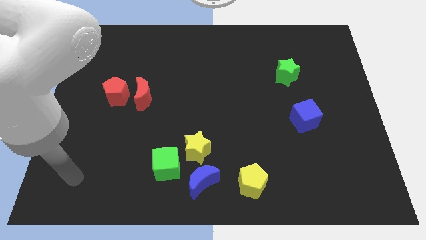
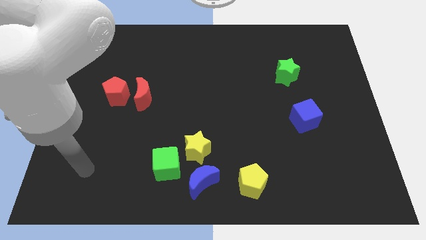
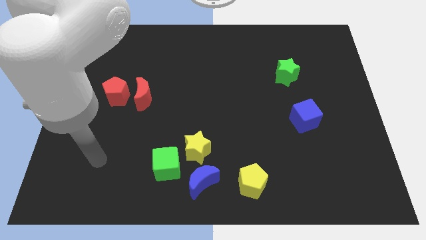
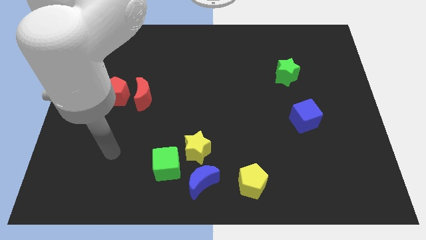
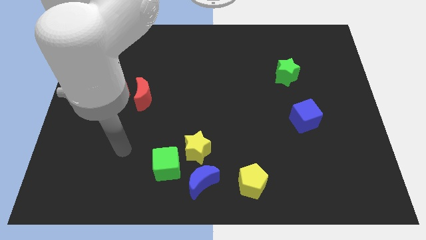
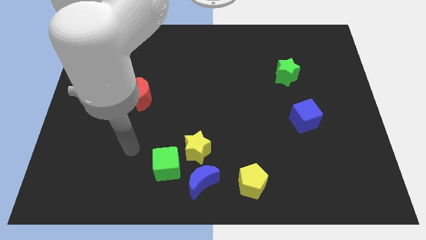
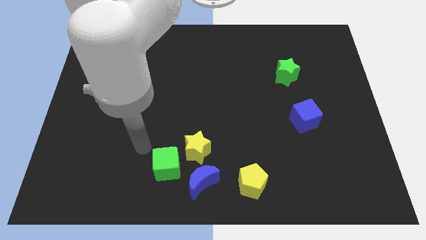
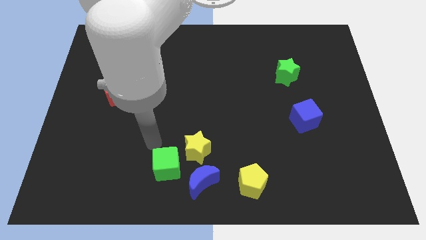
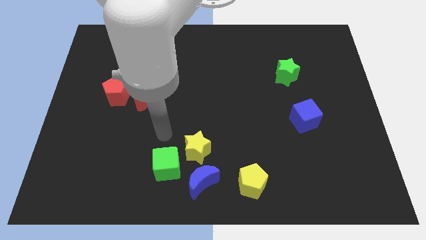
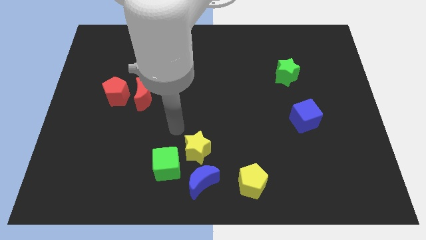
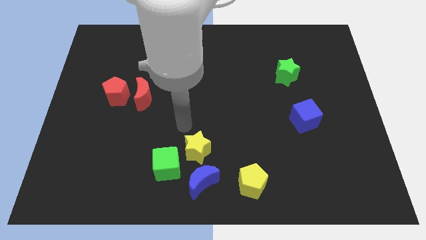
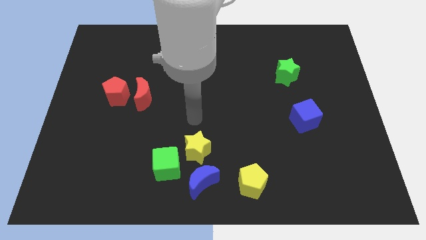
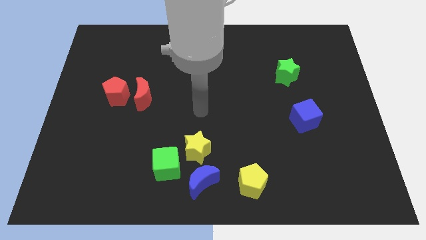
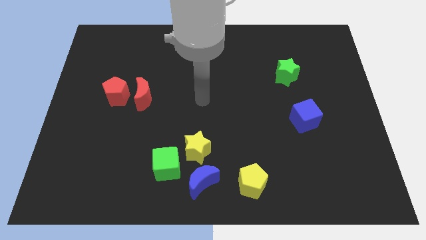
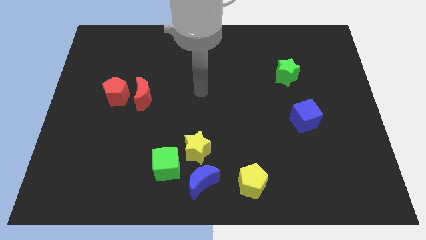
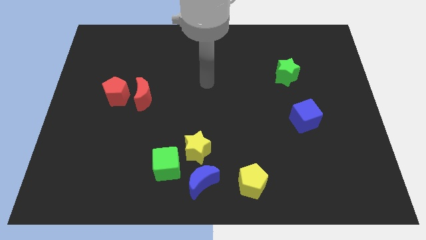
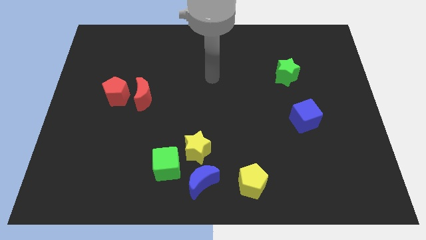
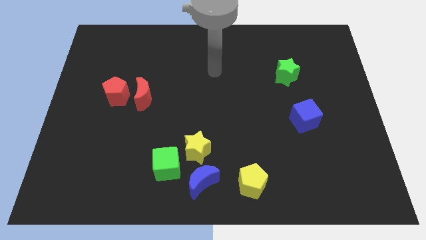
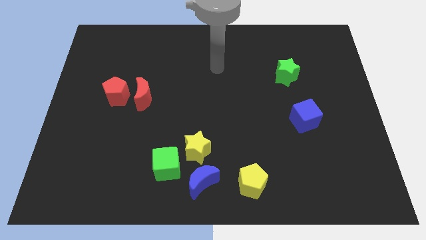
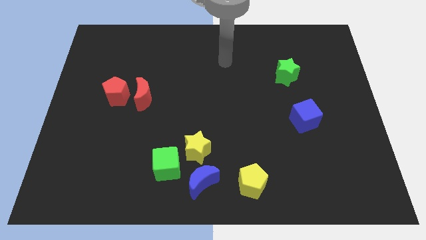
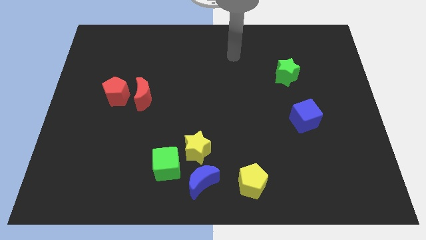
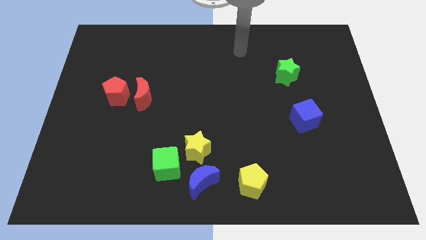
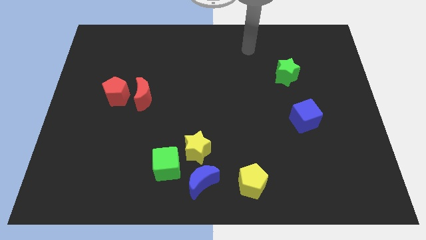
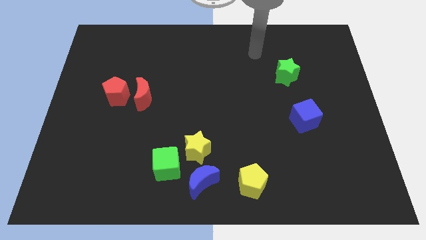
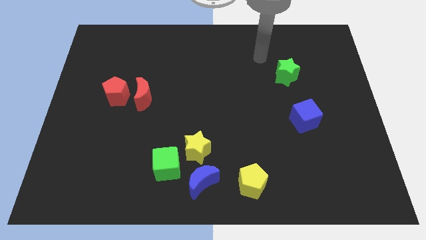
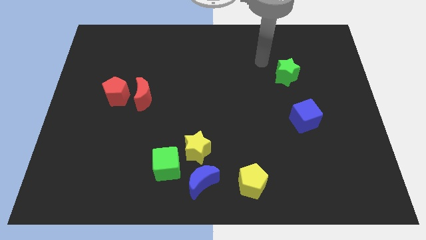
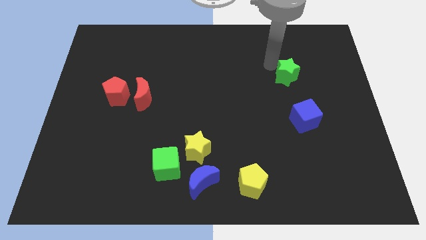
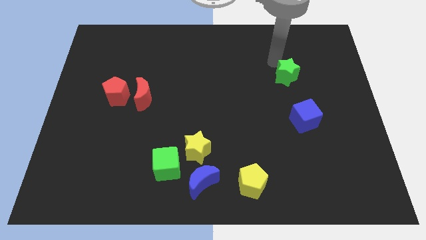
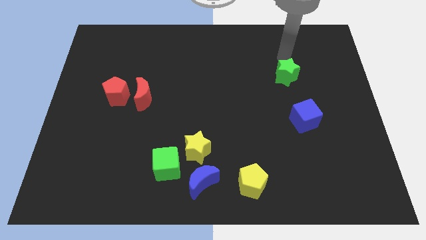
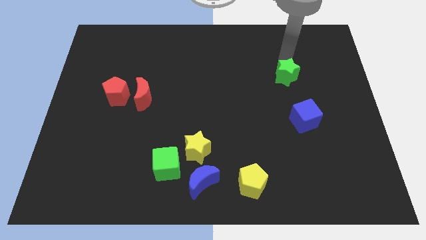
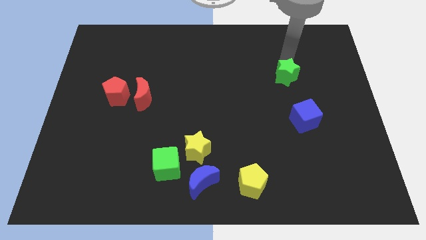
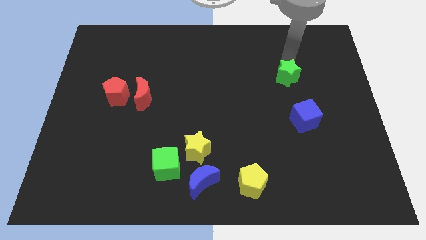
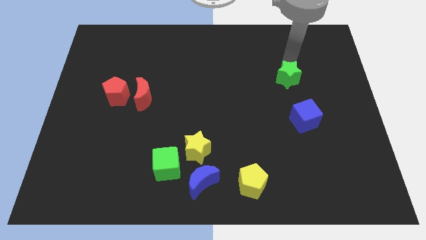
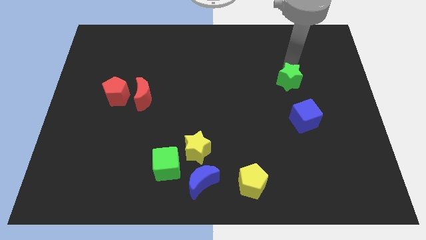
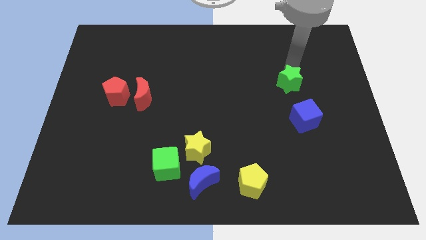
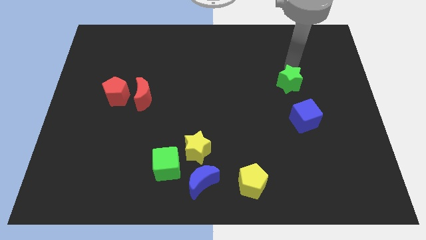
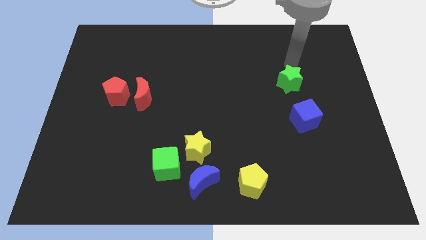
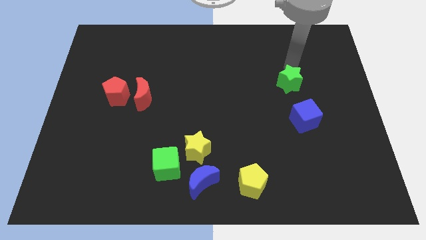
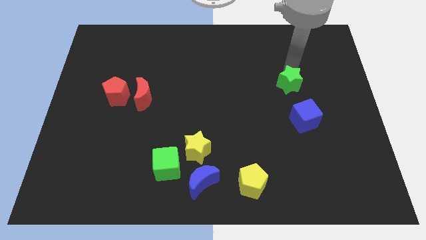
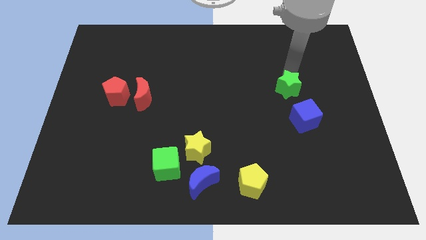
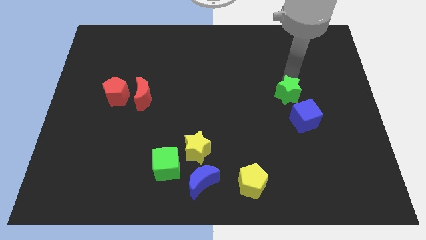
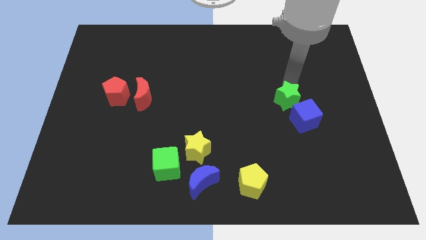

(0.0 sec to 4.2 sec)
slide the green star a little bit down

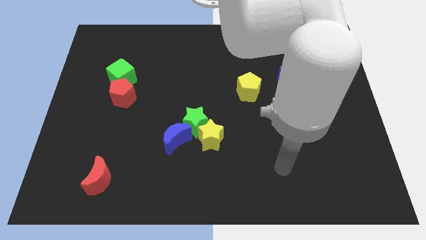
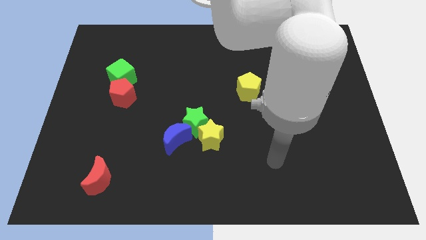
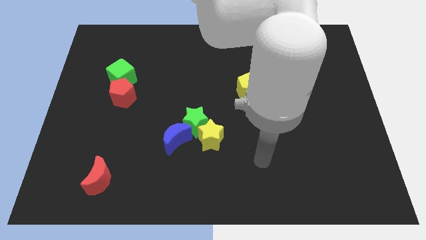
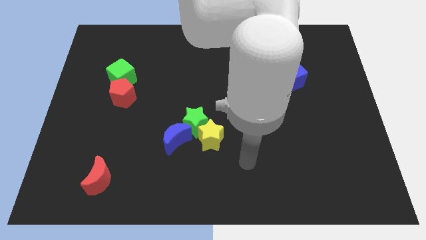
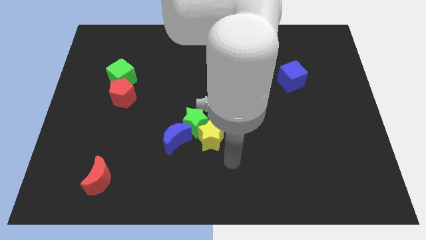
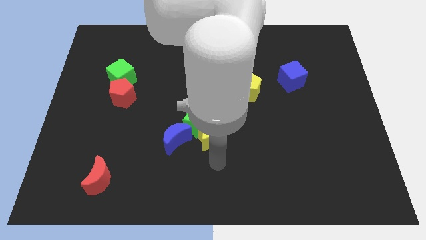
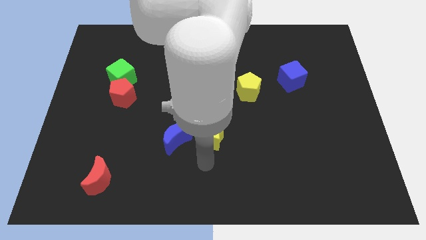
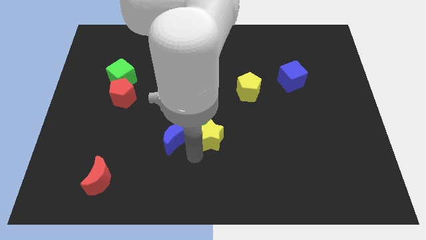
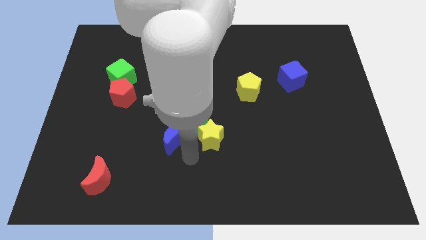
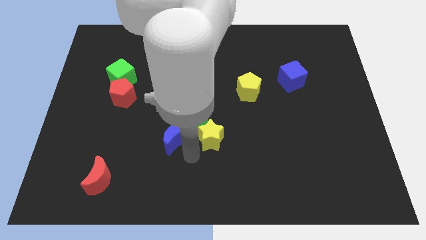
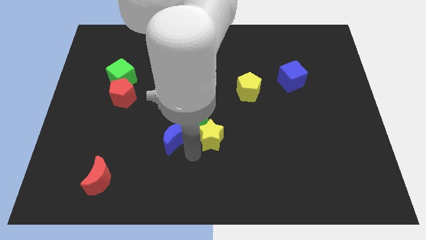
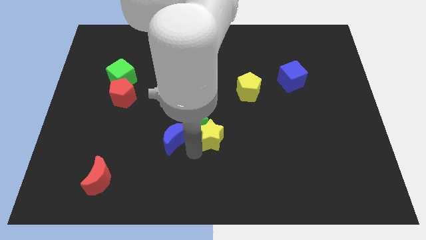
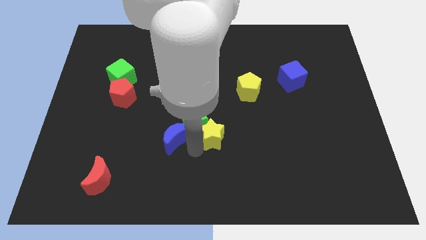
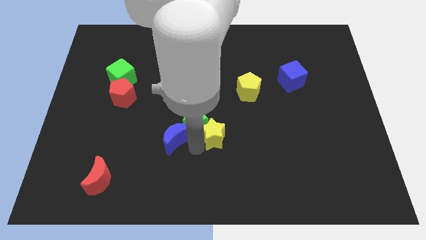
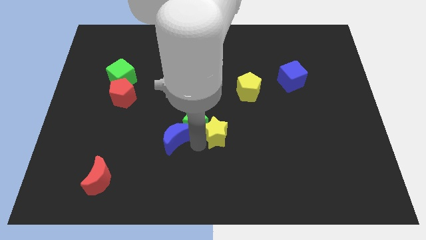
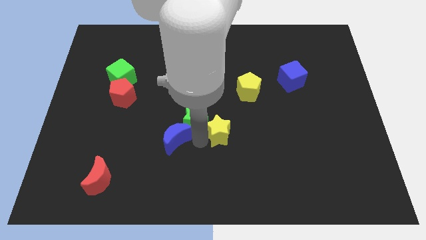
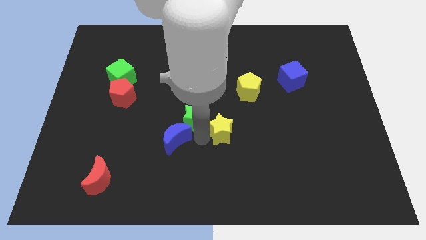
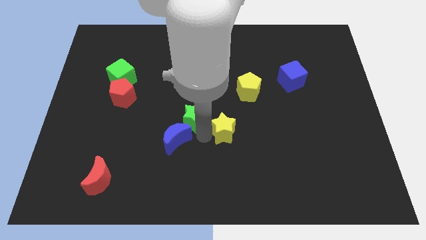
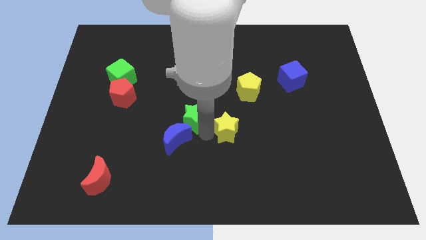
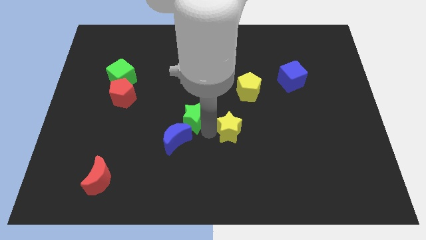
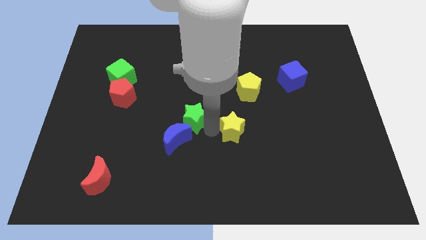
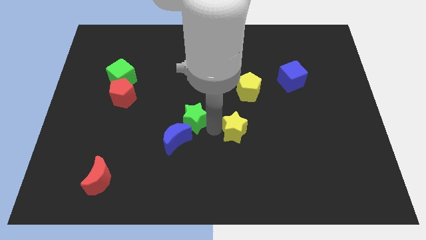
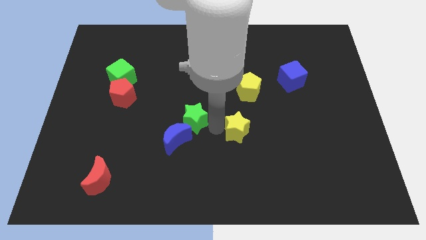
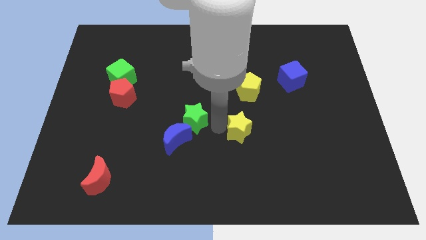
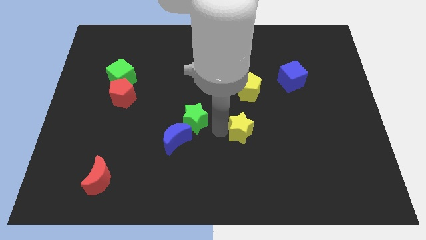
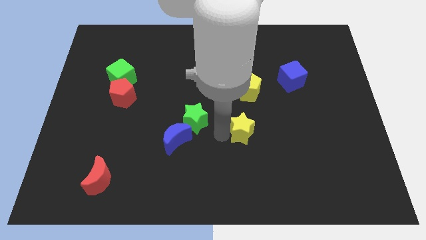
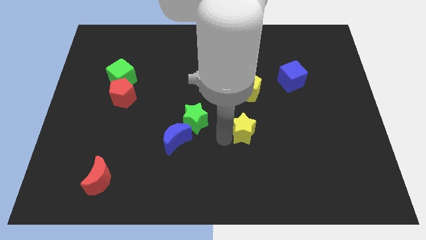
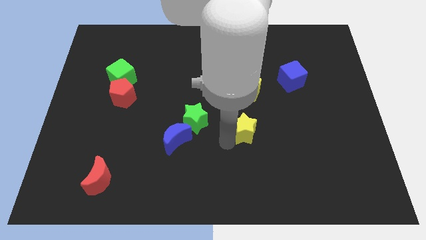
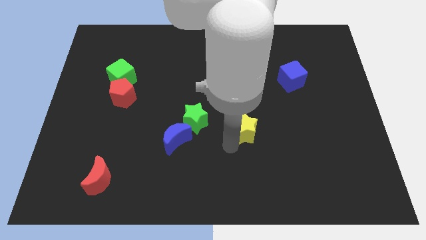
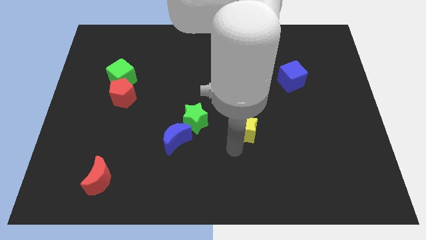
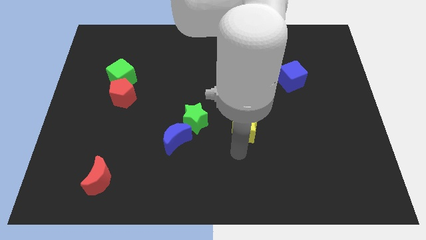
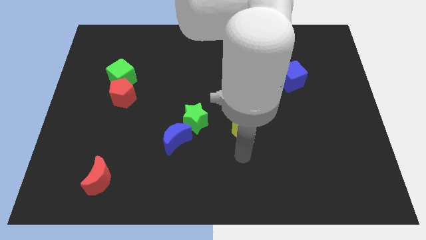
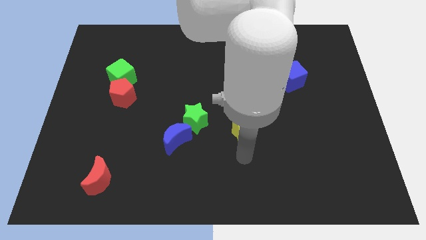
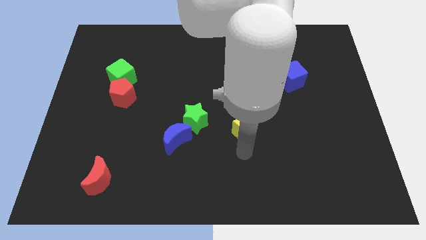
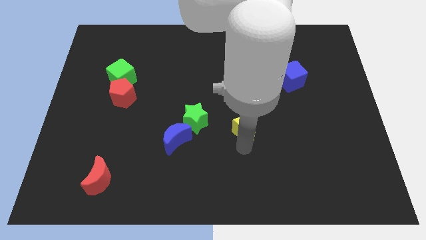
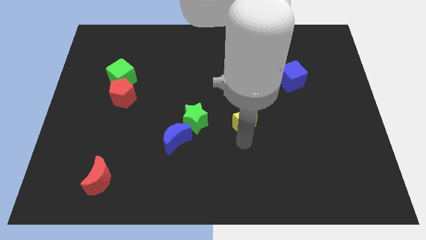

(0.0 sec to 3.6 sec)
slightly slide the yellow star diagonally up and to the right

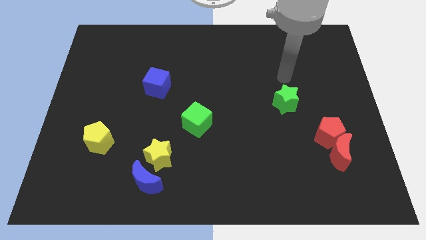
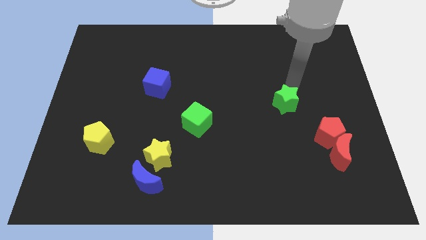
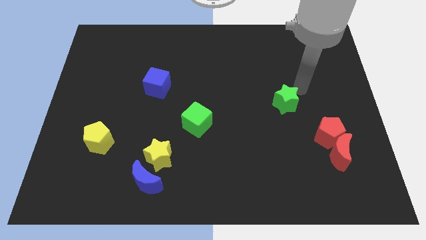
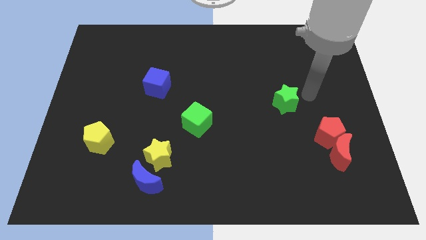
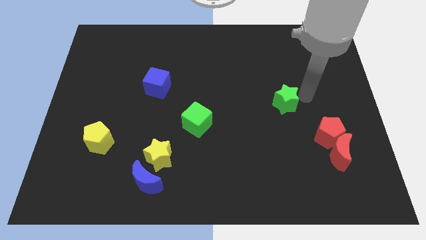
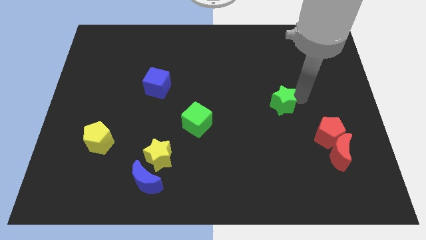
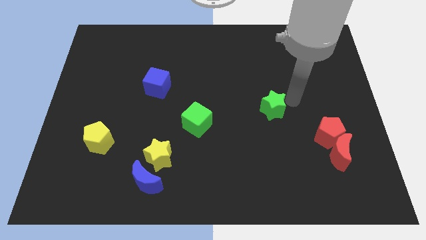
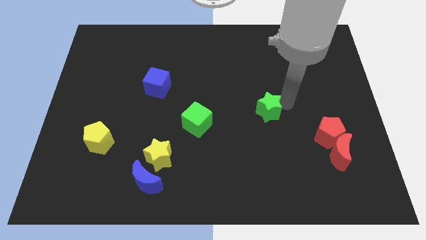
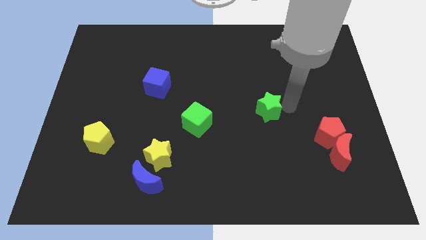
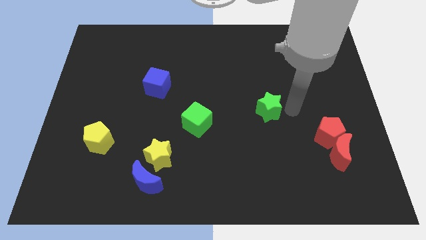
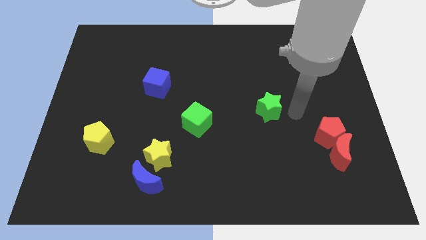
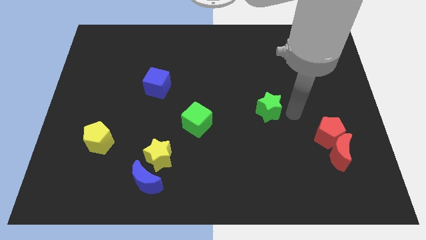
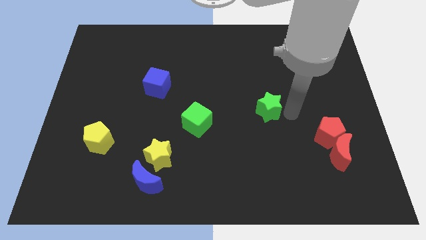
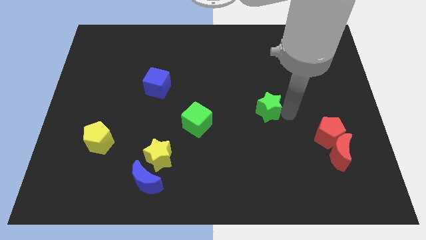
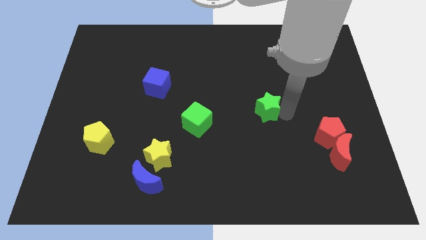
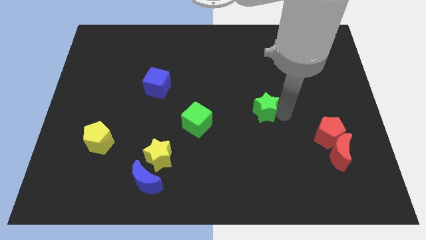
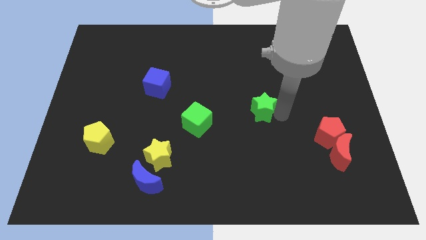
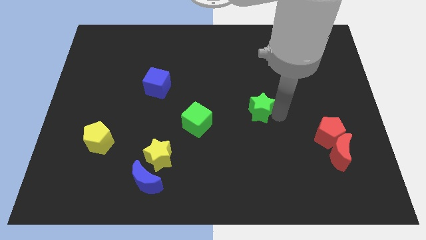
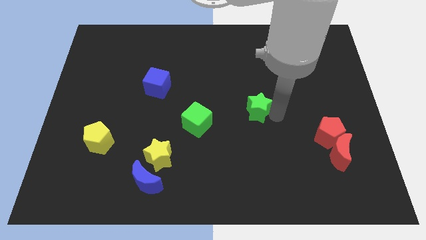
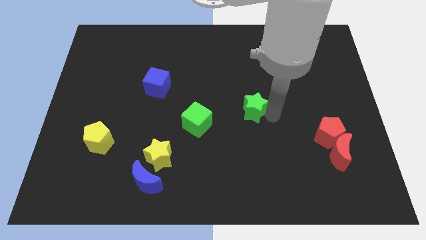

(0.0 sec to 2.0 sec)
push the green star to the left a little bit
